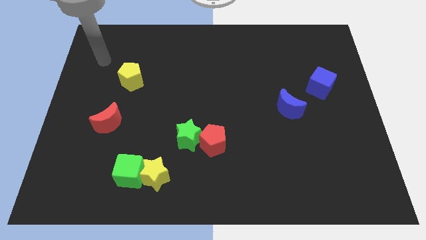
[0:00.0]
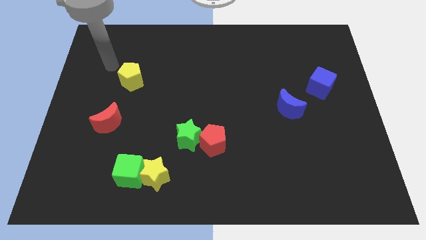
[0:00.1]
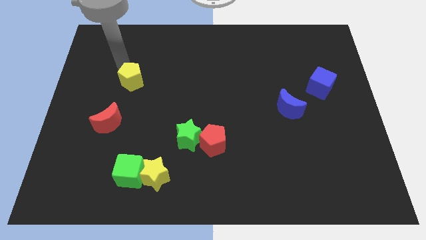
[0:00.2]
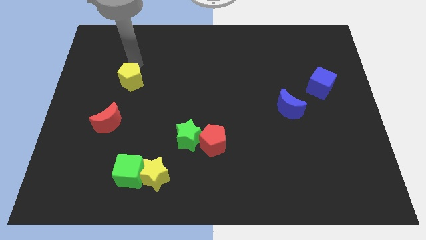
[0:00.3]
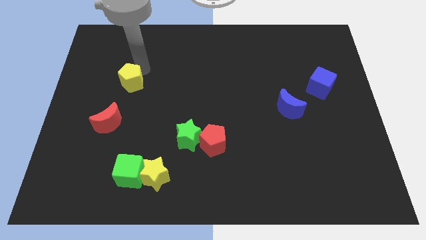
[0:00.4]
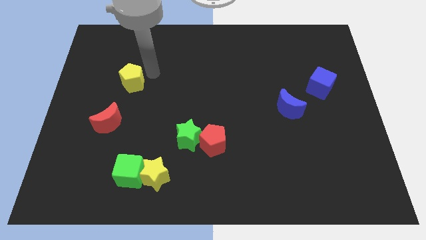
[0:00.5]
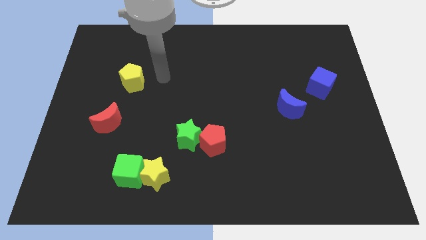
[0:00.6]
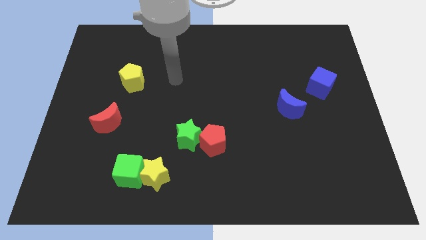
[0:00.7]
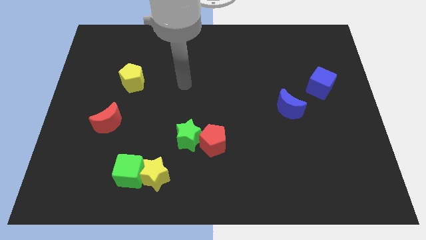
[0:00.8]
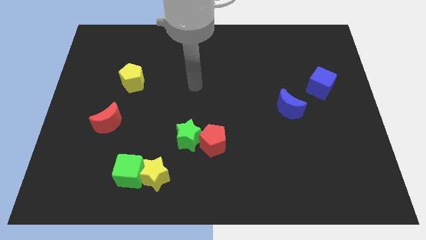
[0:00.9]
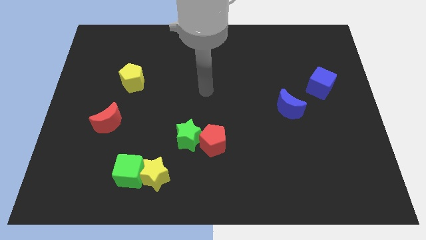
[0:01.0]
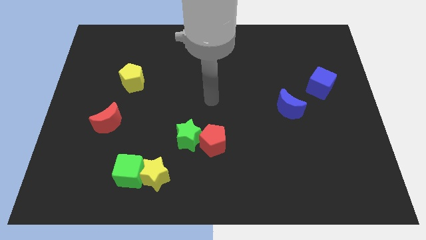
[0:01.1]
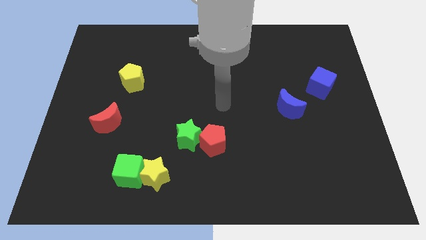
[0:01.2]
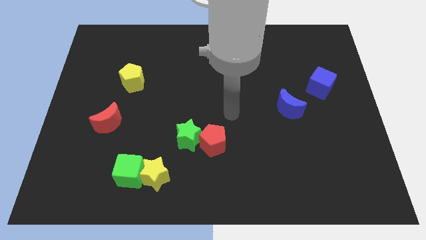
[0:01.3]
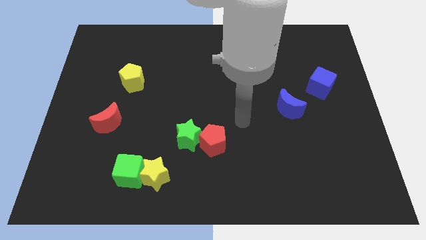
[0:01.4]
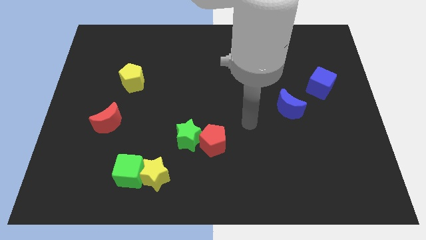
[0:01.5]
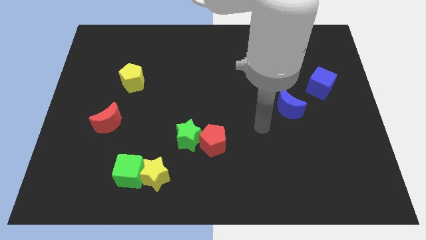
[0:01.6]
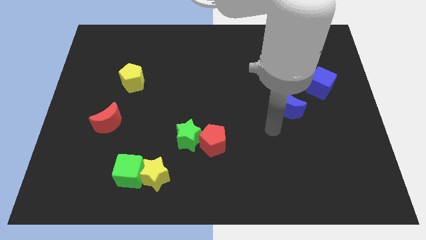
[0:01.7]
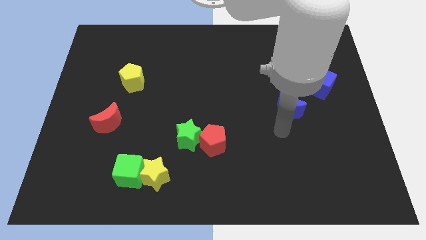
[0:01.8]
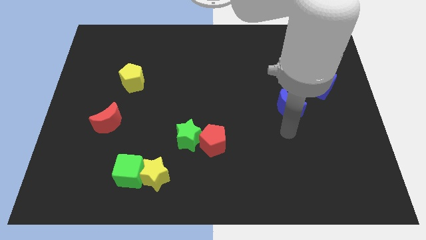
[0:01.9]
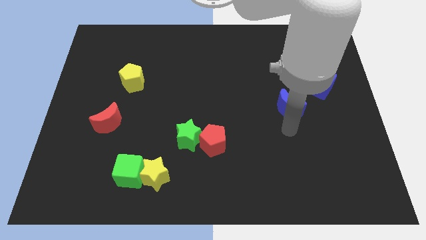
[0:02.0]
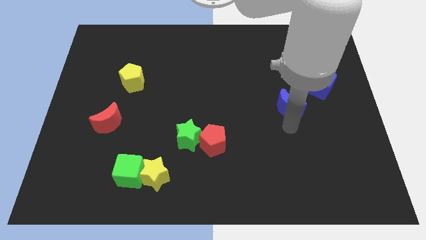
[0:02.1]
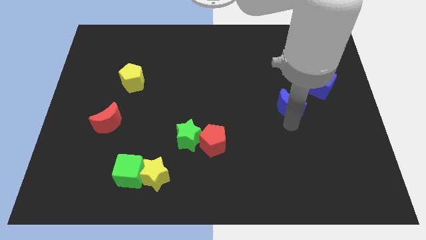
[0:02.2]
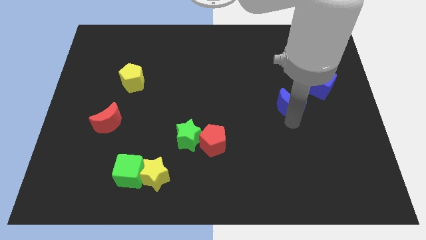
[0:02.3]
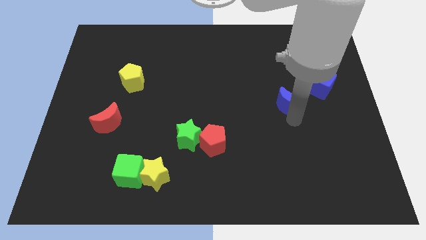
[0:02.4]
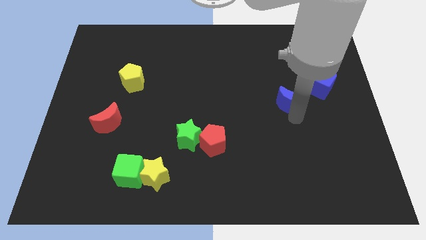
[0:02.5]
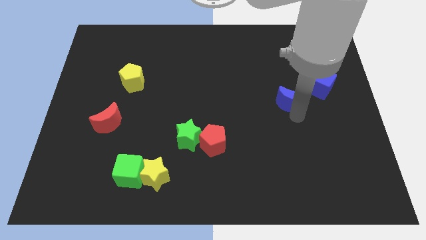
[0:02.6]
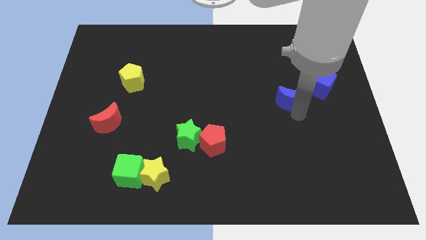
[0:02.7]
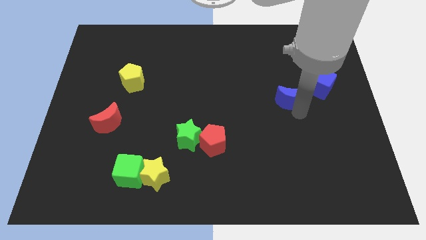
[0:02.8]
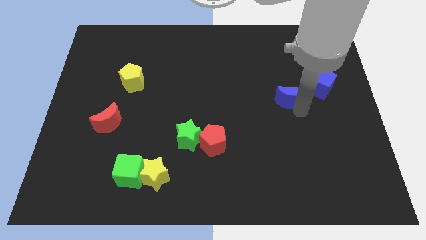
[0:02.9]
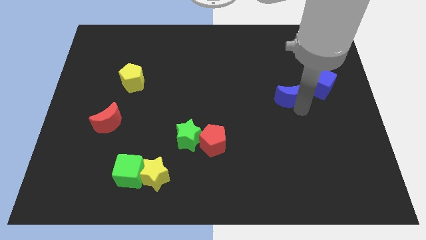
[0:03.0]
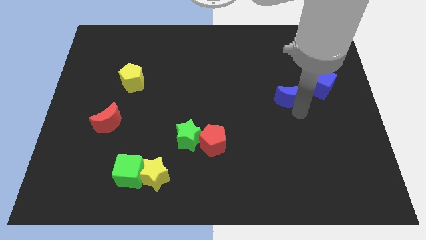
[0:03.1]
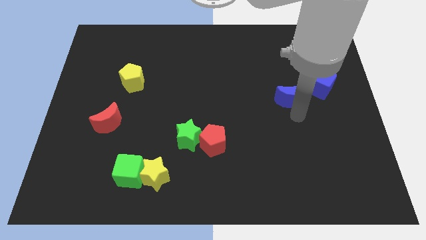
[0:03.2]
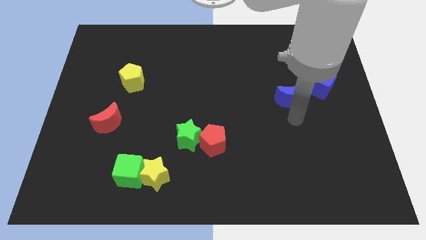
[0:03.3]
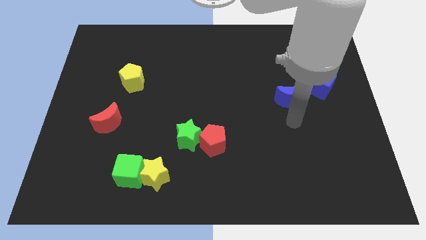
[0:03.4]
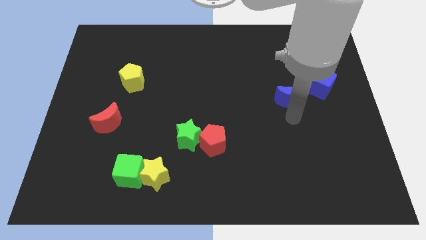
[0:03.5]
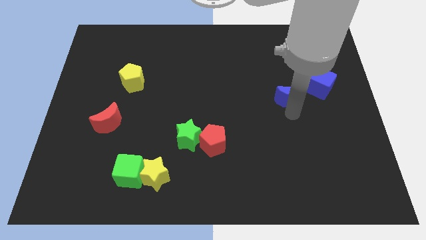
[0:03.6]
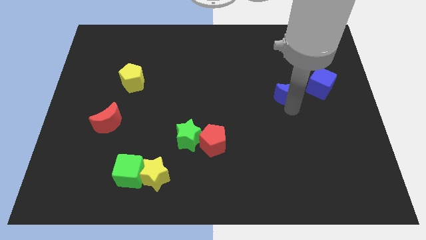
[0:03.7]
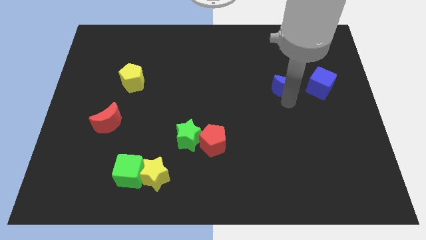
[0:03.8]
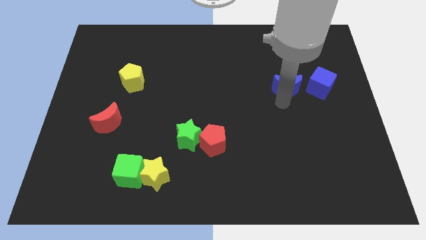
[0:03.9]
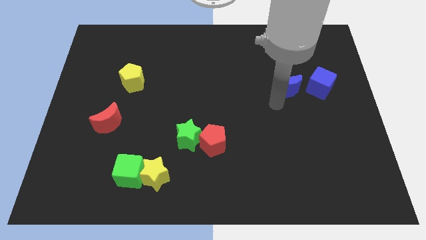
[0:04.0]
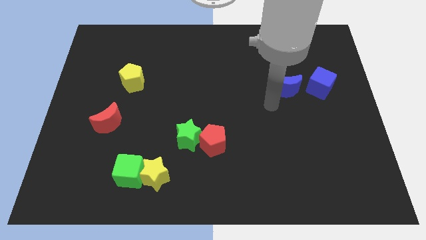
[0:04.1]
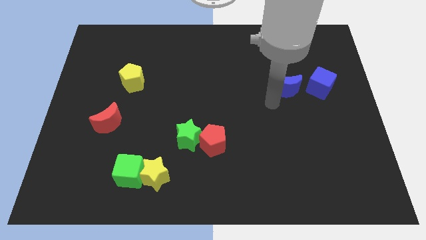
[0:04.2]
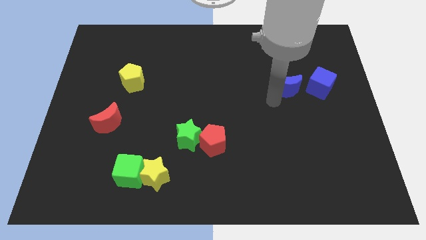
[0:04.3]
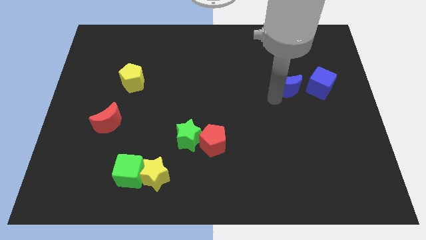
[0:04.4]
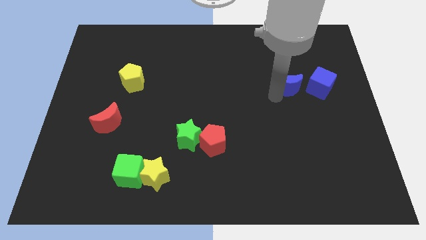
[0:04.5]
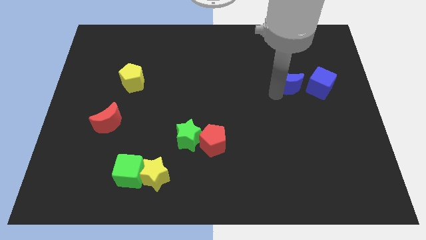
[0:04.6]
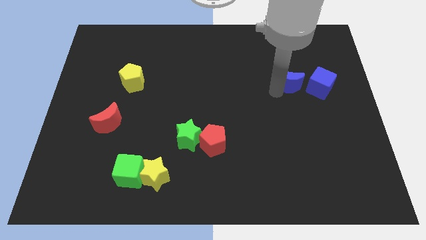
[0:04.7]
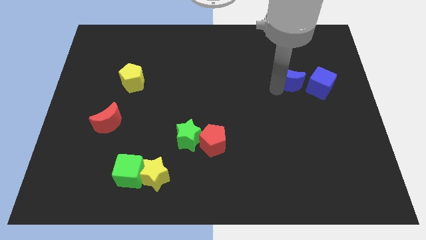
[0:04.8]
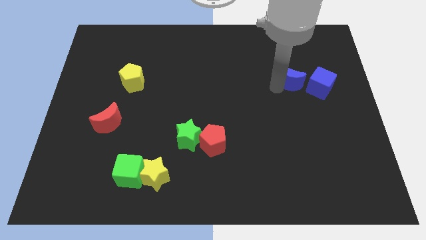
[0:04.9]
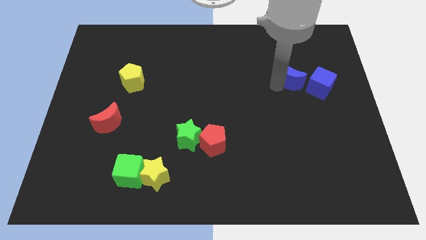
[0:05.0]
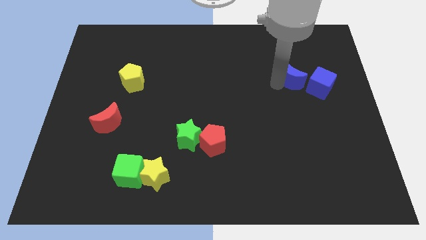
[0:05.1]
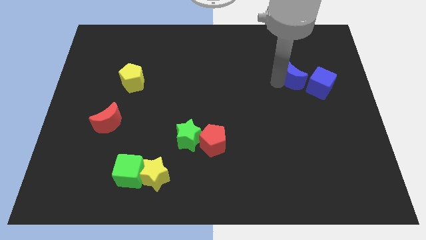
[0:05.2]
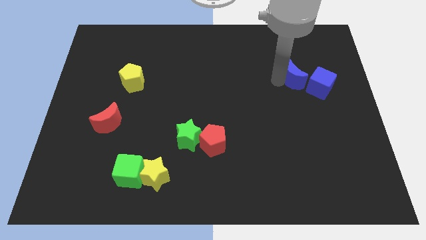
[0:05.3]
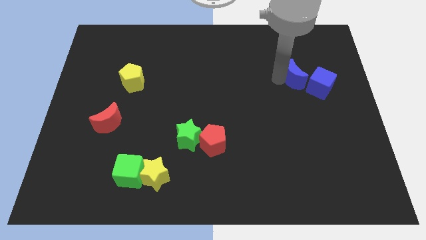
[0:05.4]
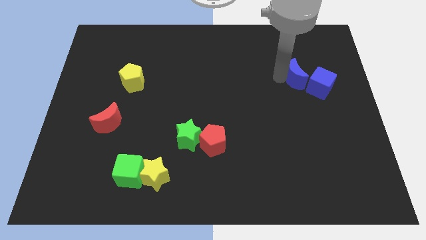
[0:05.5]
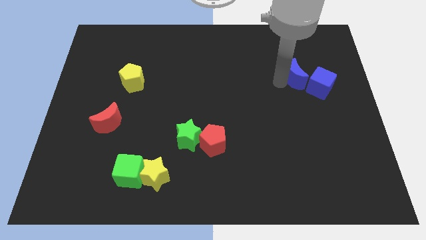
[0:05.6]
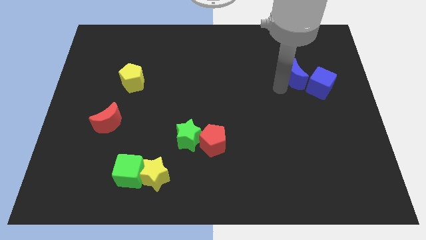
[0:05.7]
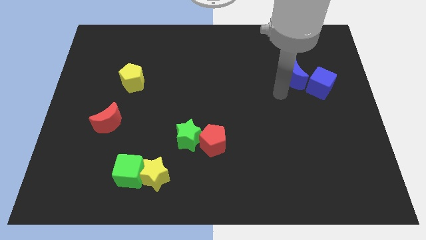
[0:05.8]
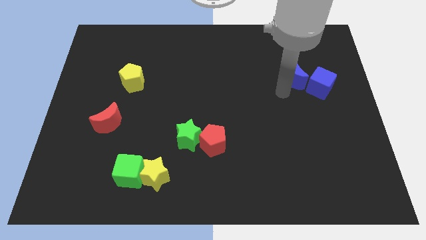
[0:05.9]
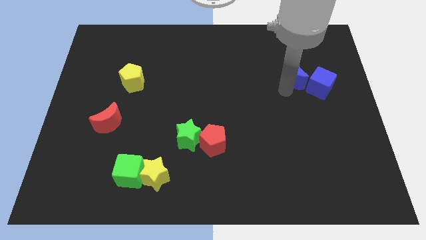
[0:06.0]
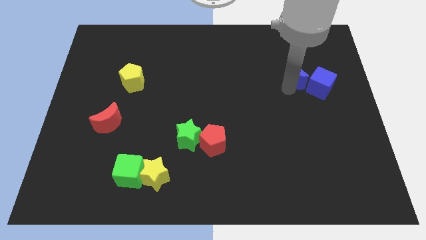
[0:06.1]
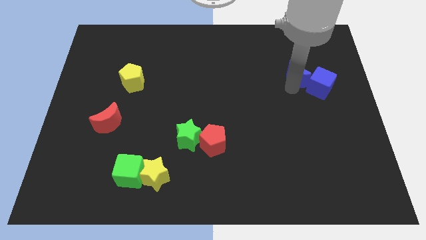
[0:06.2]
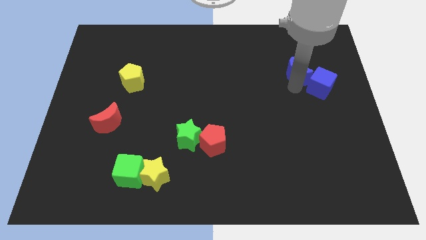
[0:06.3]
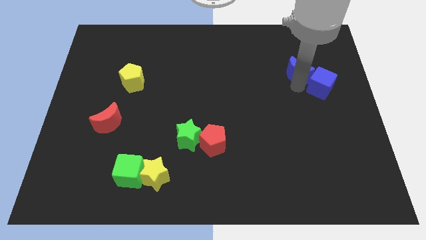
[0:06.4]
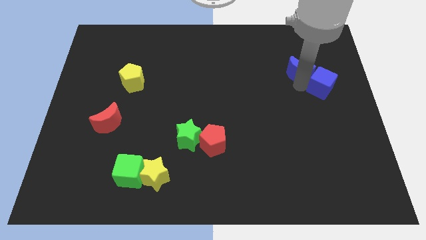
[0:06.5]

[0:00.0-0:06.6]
move the blue moon above the blue cube

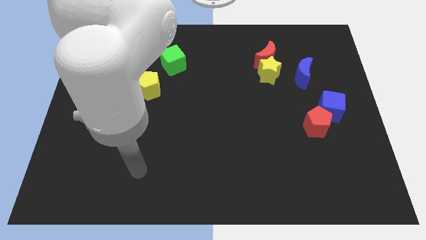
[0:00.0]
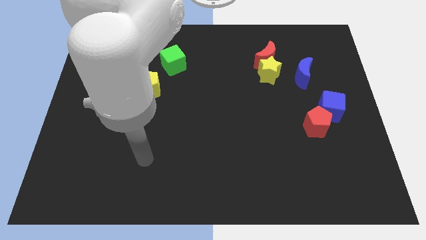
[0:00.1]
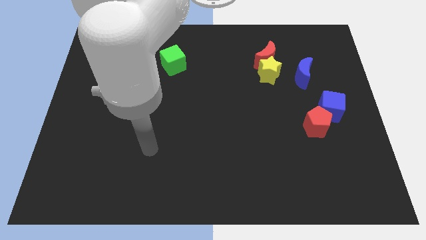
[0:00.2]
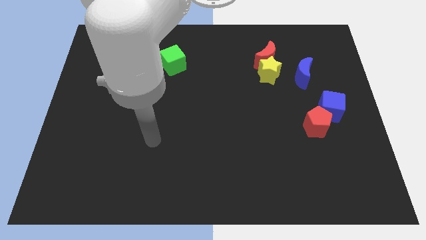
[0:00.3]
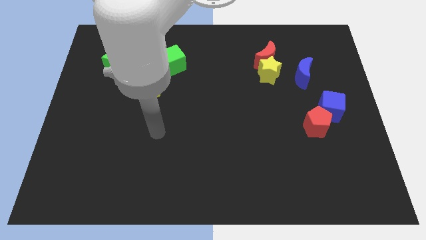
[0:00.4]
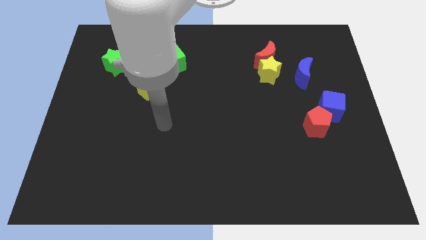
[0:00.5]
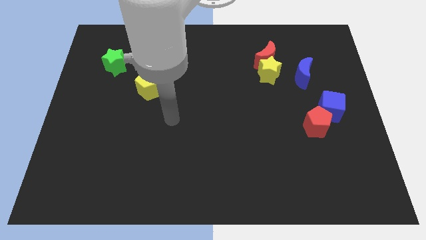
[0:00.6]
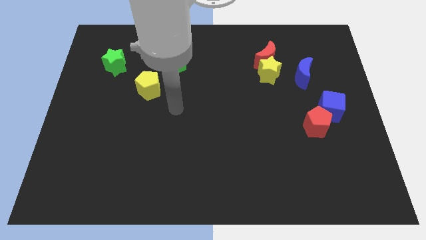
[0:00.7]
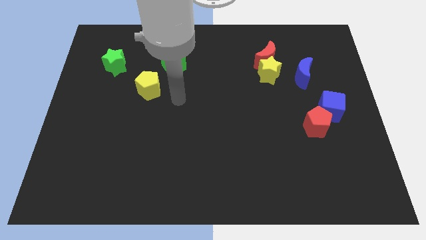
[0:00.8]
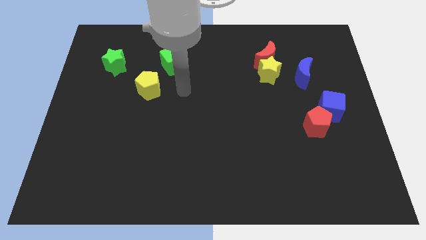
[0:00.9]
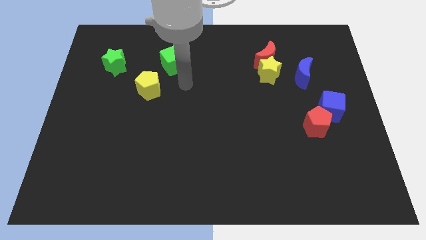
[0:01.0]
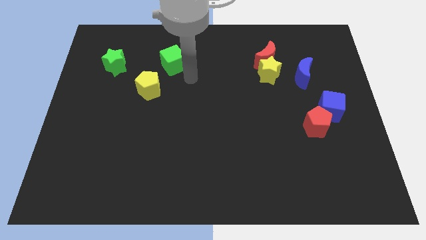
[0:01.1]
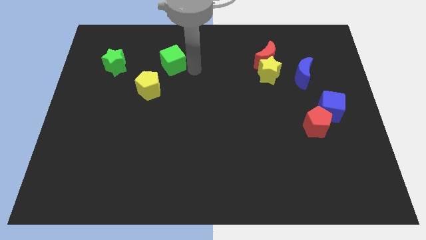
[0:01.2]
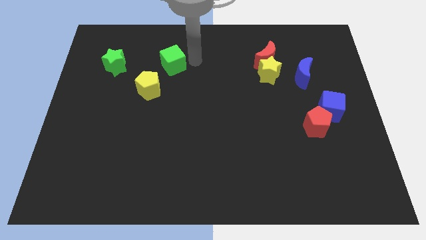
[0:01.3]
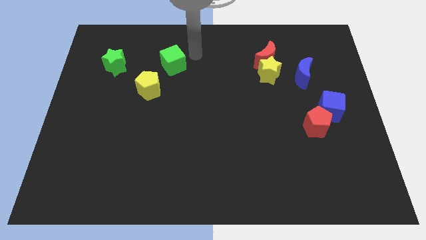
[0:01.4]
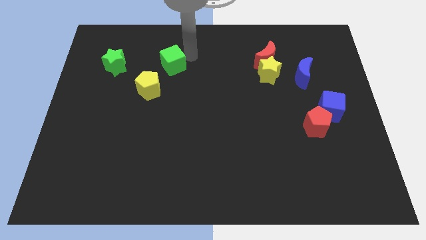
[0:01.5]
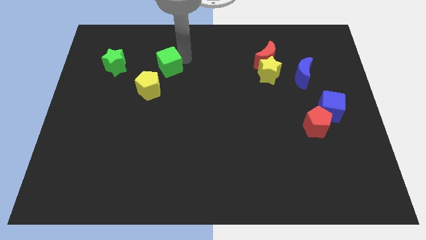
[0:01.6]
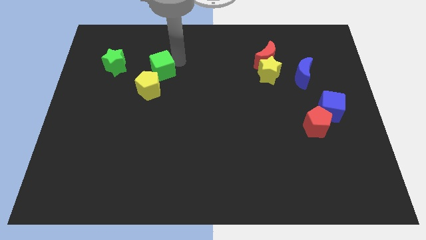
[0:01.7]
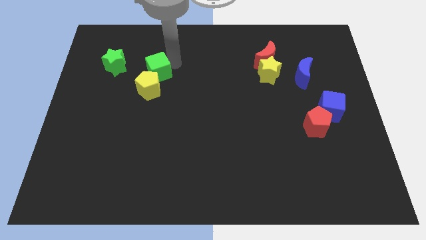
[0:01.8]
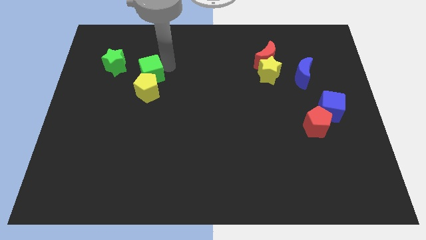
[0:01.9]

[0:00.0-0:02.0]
push the green cube diagonally down and to the right of the green star
